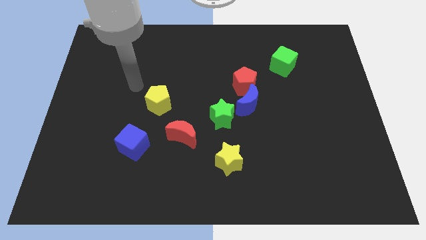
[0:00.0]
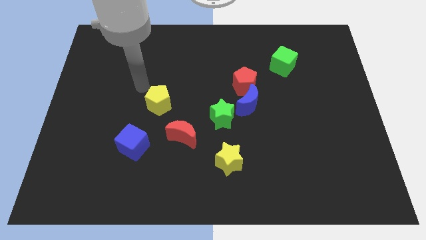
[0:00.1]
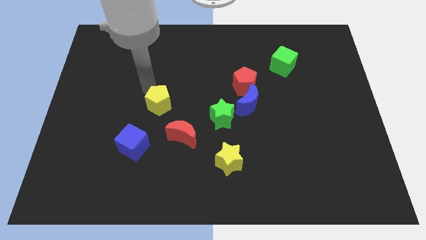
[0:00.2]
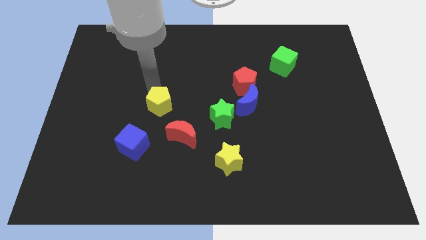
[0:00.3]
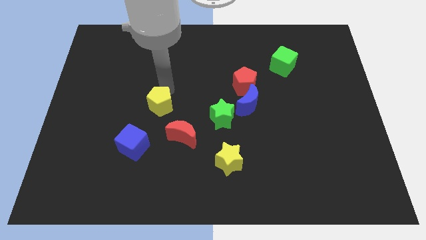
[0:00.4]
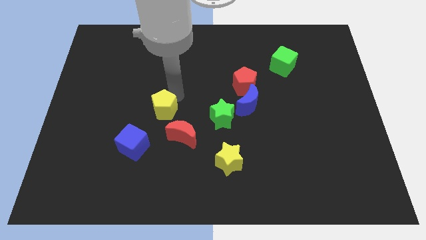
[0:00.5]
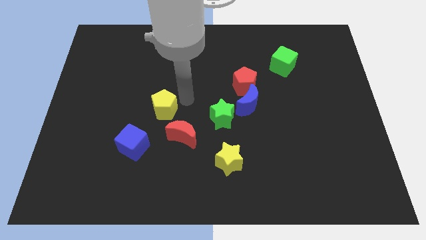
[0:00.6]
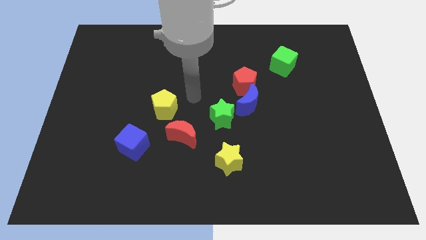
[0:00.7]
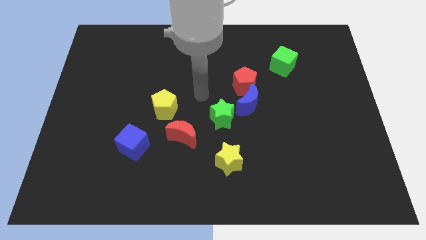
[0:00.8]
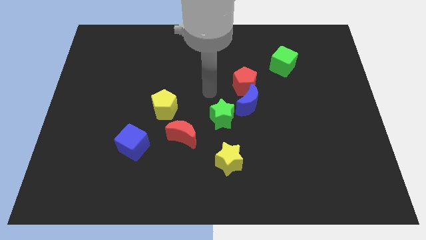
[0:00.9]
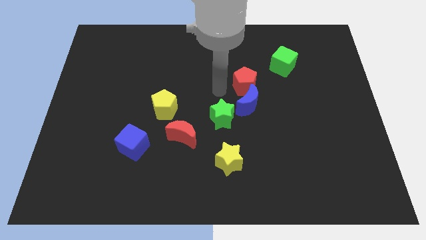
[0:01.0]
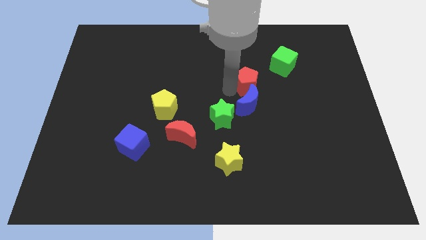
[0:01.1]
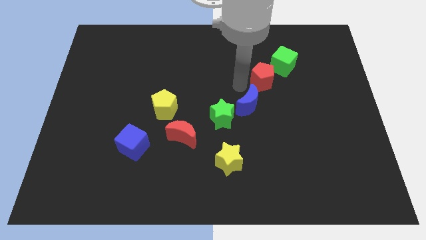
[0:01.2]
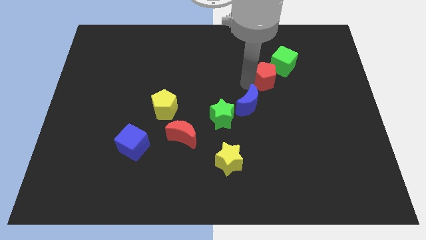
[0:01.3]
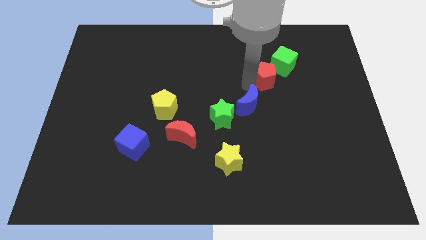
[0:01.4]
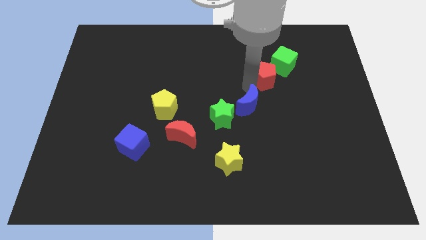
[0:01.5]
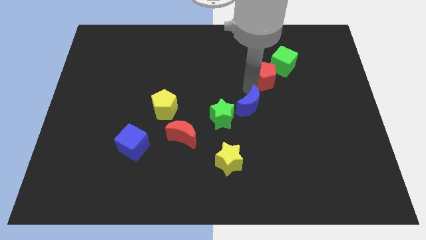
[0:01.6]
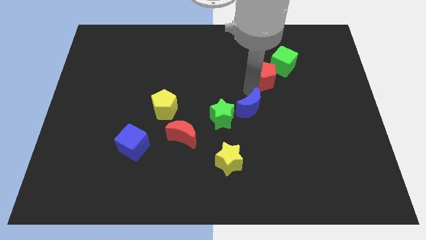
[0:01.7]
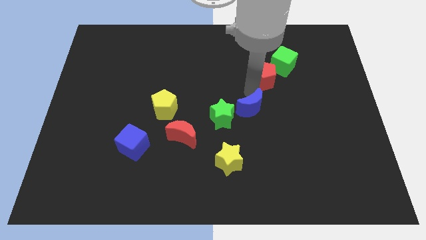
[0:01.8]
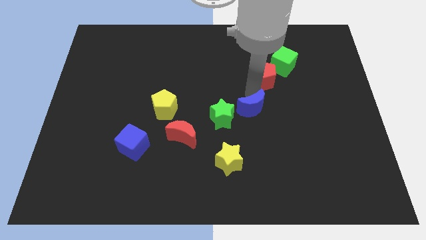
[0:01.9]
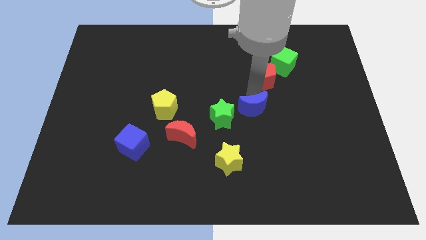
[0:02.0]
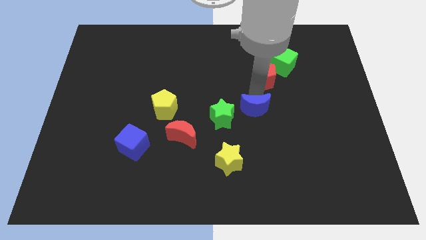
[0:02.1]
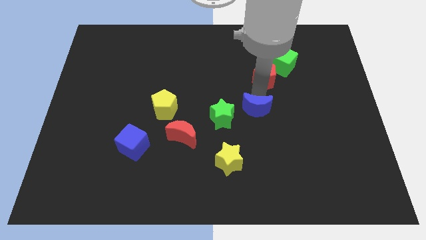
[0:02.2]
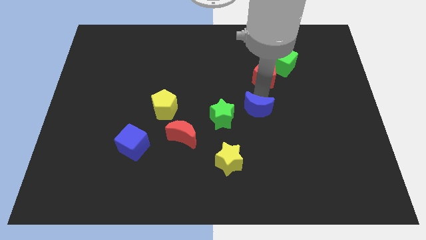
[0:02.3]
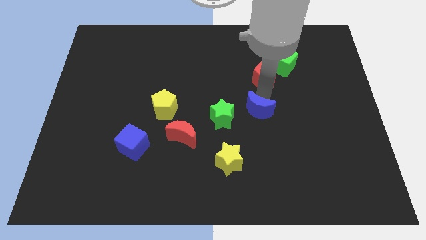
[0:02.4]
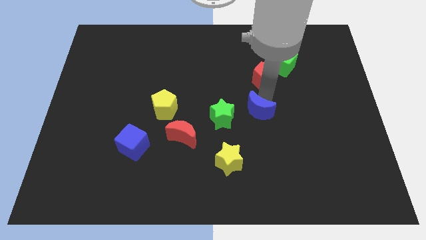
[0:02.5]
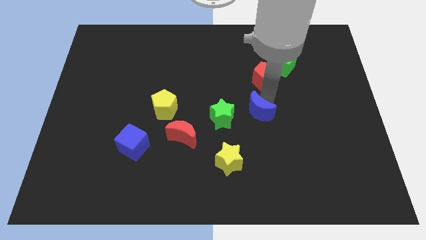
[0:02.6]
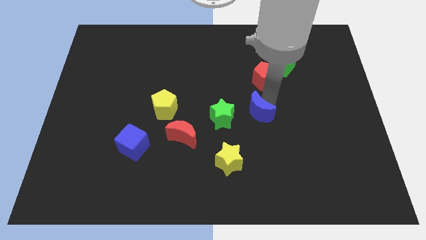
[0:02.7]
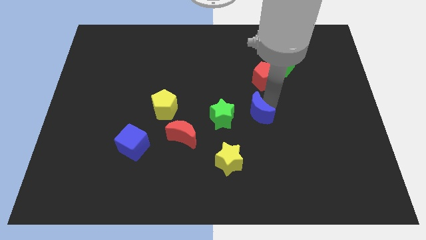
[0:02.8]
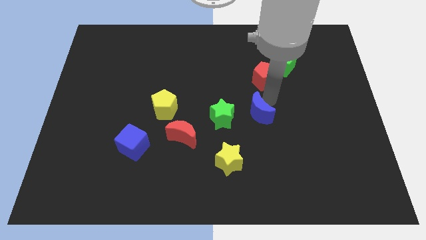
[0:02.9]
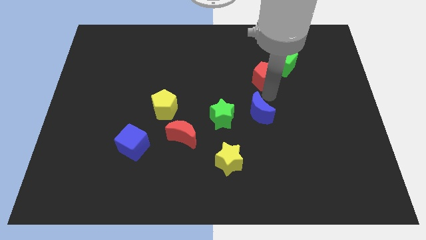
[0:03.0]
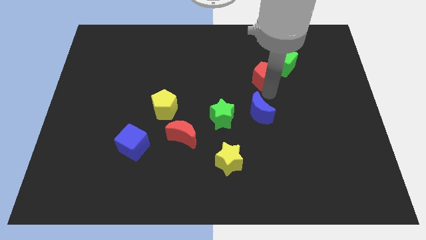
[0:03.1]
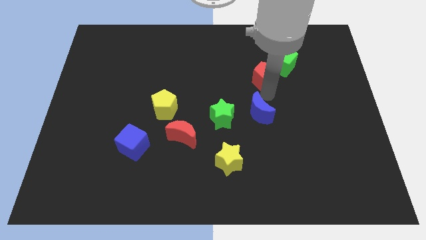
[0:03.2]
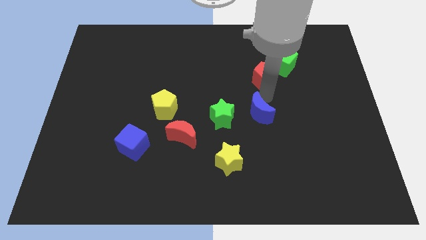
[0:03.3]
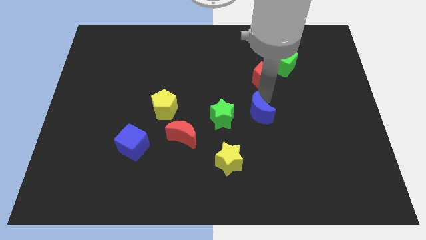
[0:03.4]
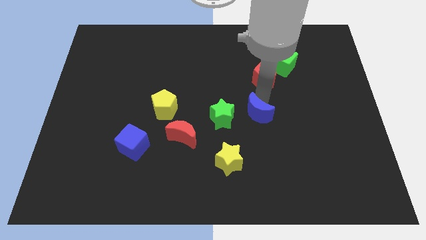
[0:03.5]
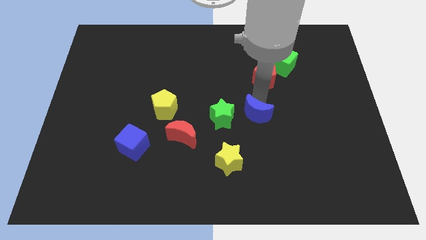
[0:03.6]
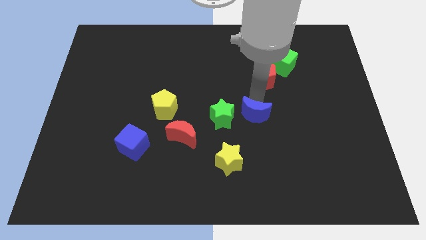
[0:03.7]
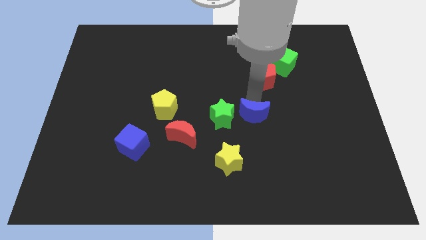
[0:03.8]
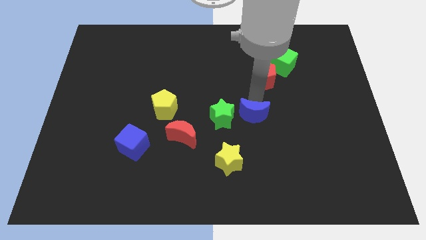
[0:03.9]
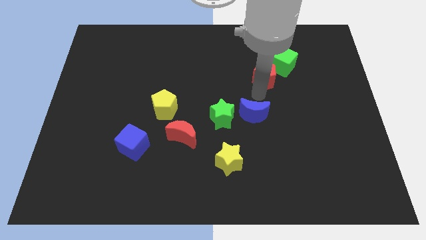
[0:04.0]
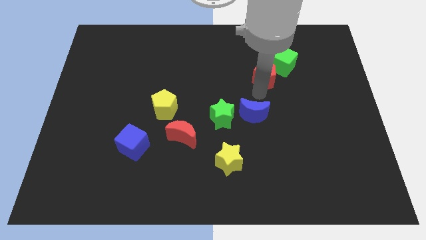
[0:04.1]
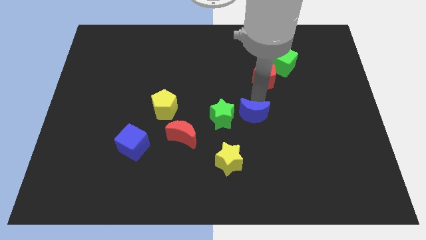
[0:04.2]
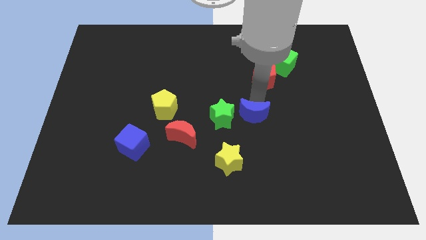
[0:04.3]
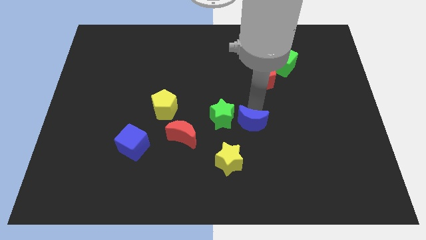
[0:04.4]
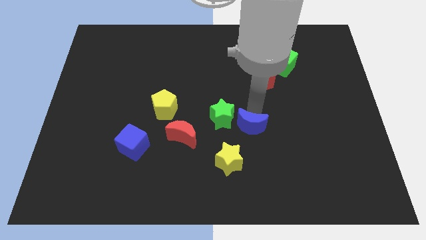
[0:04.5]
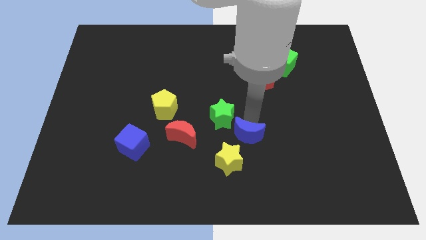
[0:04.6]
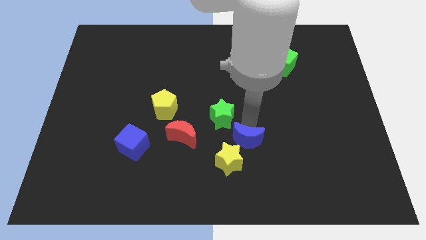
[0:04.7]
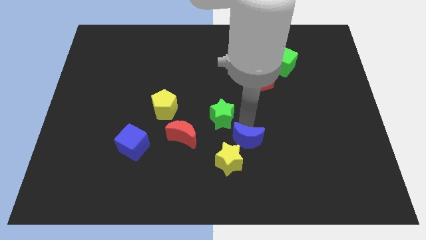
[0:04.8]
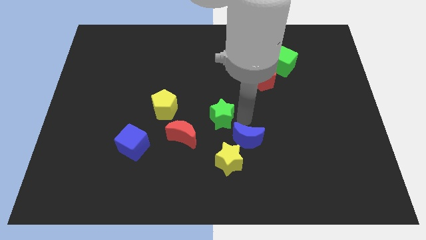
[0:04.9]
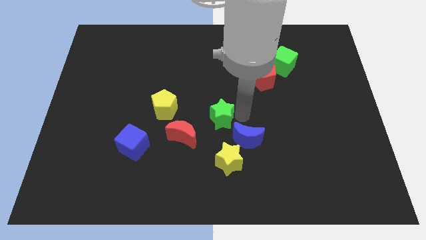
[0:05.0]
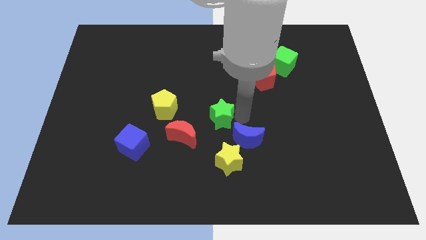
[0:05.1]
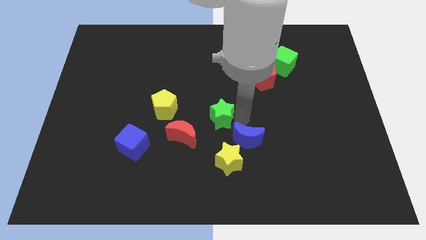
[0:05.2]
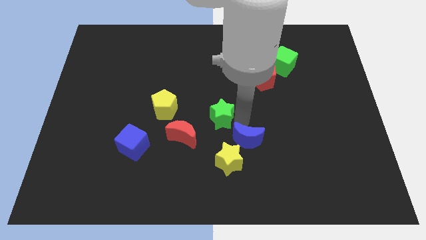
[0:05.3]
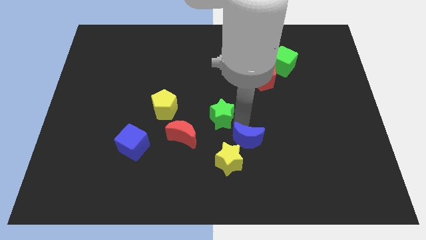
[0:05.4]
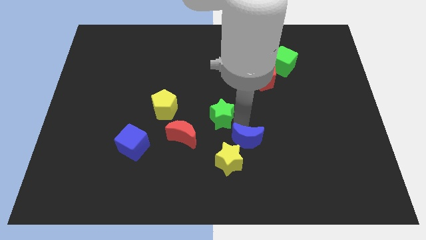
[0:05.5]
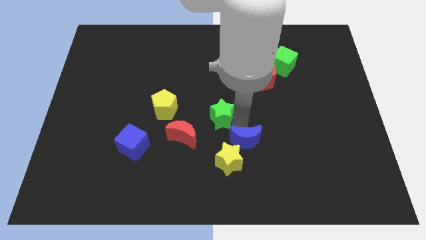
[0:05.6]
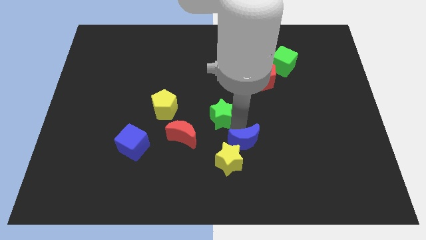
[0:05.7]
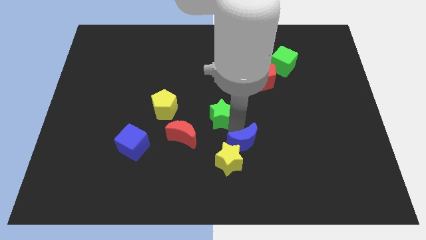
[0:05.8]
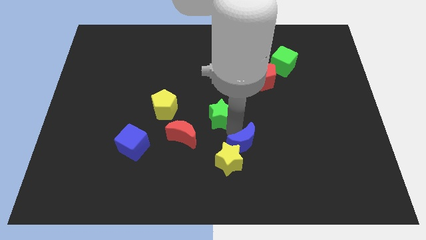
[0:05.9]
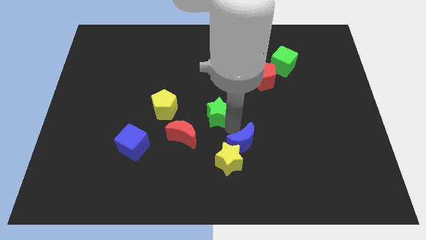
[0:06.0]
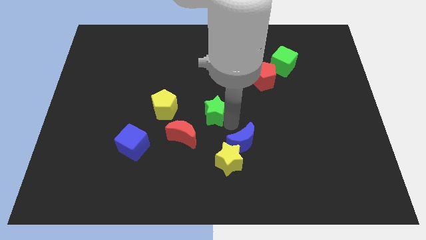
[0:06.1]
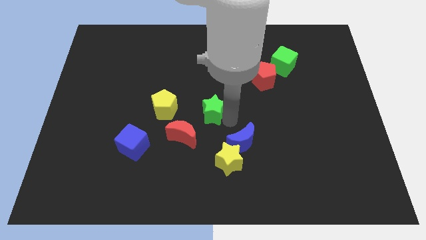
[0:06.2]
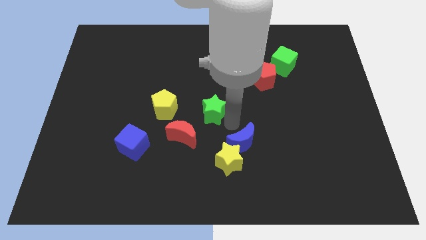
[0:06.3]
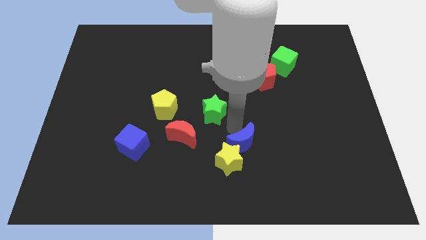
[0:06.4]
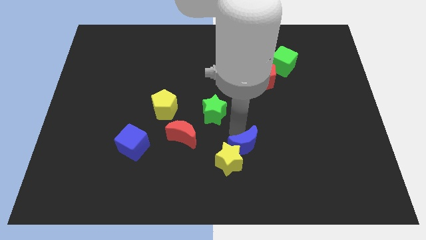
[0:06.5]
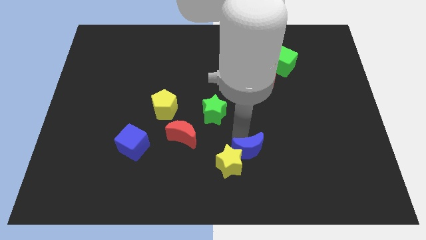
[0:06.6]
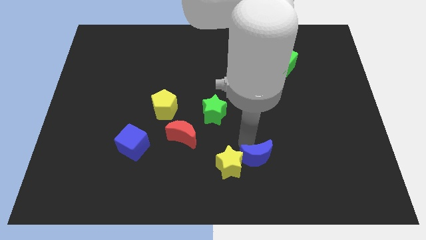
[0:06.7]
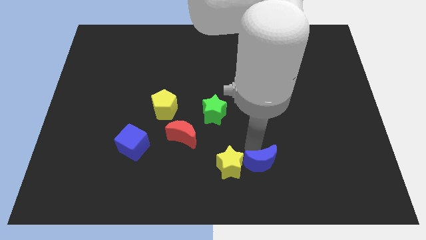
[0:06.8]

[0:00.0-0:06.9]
move the blue moon diagonally down and to the right of the yellow star

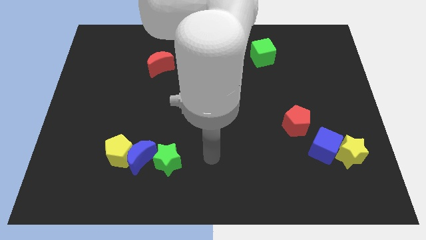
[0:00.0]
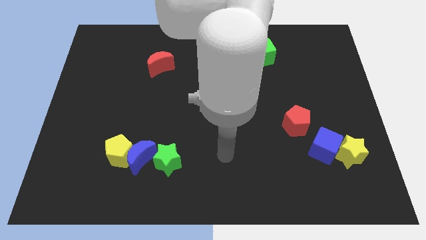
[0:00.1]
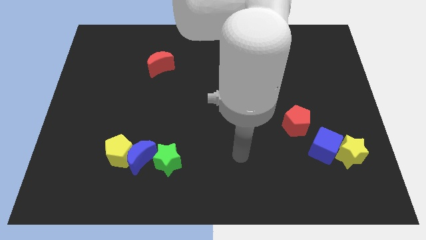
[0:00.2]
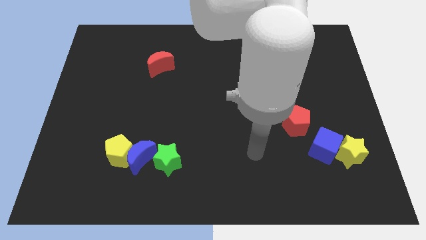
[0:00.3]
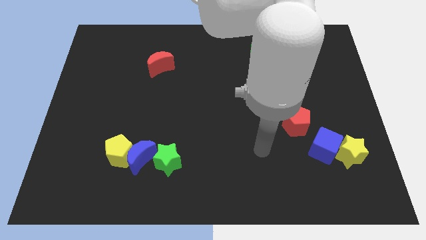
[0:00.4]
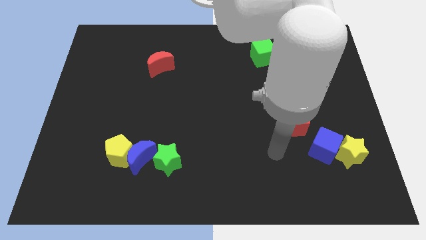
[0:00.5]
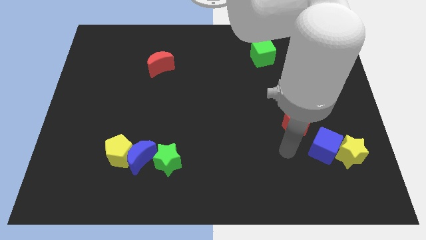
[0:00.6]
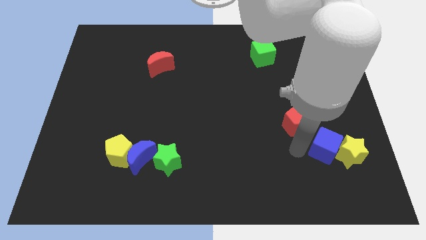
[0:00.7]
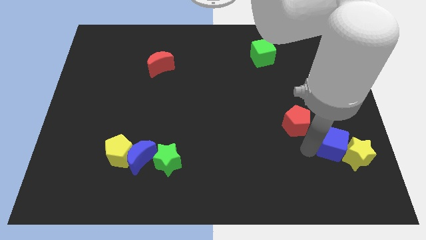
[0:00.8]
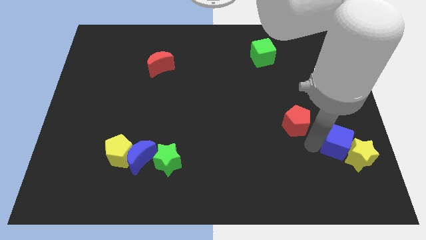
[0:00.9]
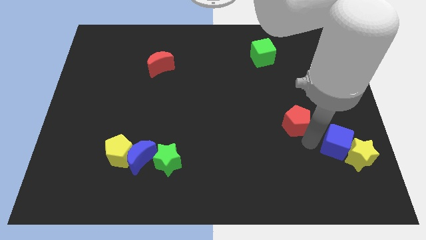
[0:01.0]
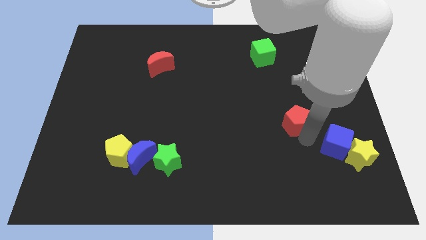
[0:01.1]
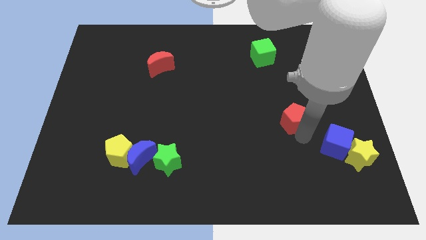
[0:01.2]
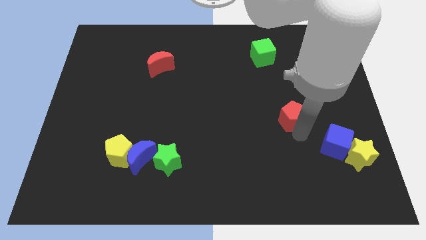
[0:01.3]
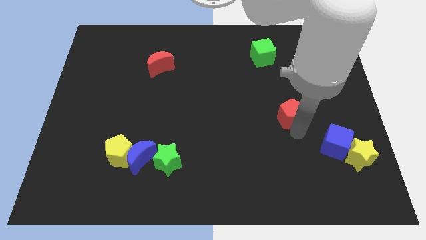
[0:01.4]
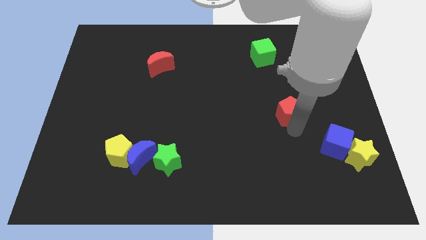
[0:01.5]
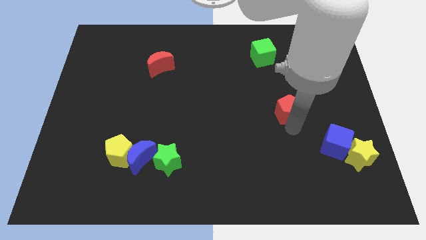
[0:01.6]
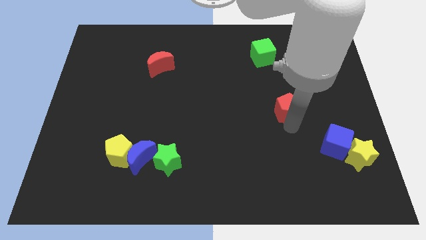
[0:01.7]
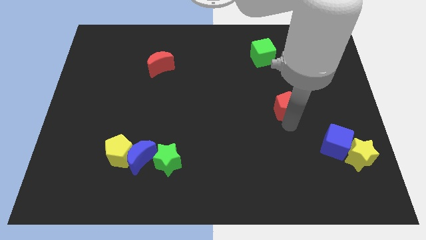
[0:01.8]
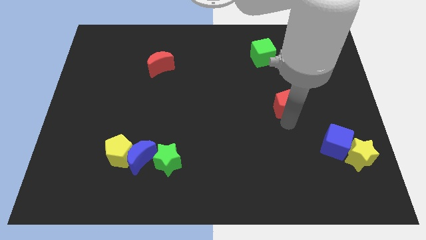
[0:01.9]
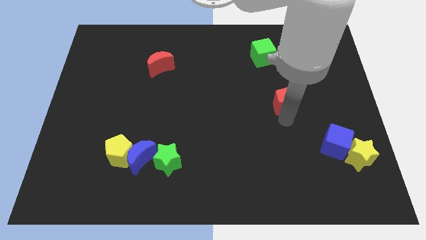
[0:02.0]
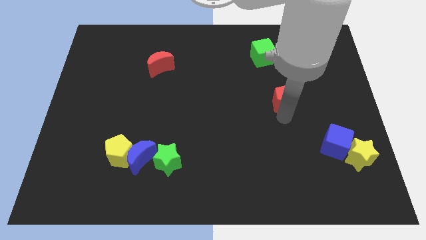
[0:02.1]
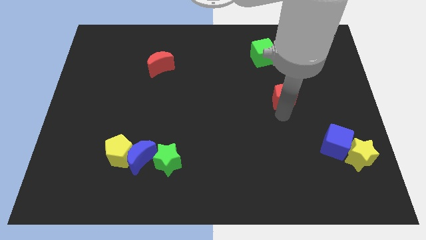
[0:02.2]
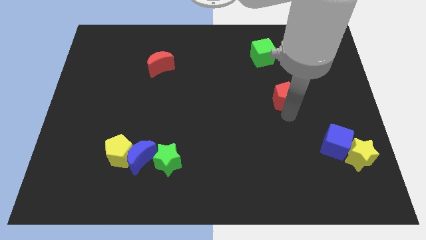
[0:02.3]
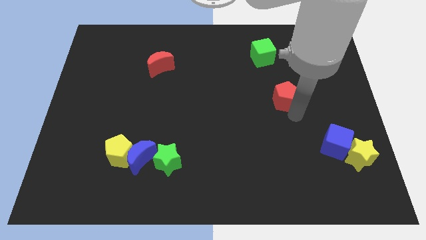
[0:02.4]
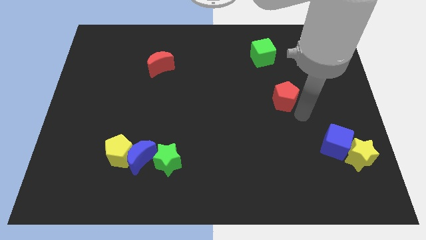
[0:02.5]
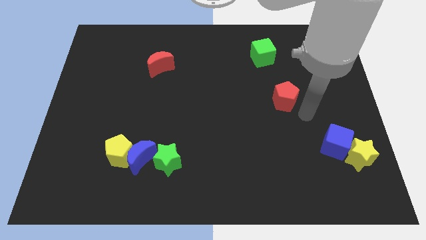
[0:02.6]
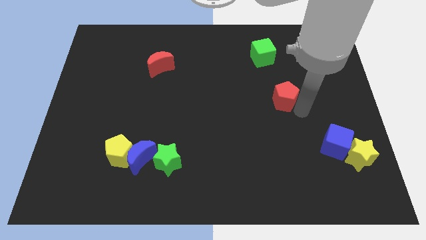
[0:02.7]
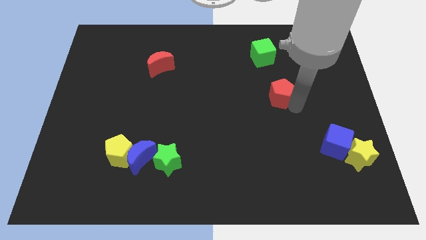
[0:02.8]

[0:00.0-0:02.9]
slide the red pentagon to the bottom side of the green cube
